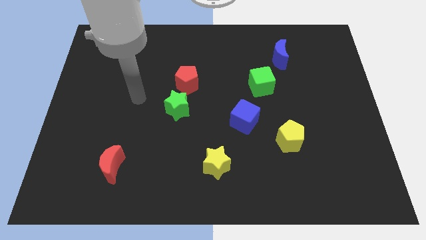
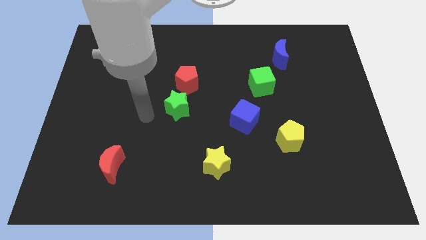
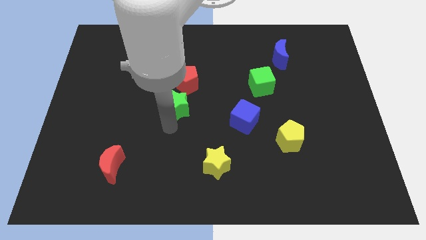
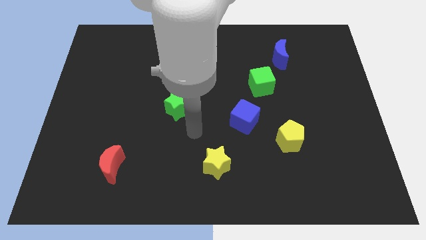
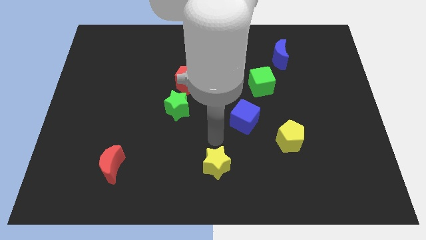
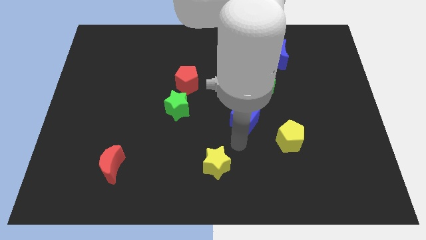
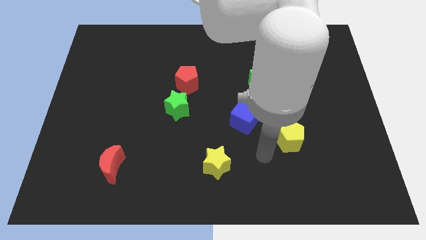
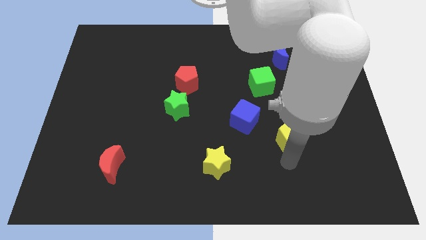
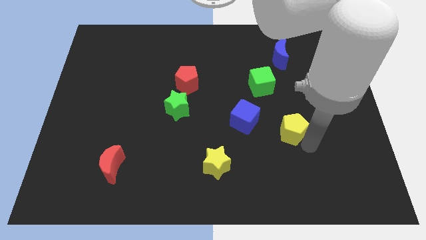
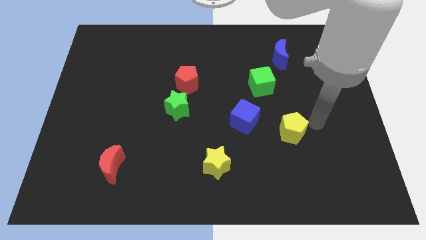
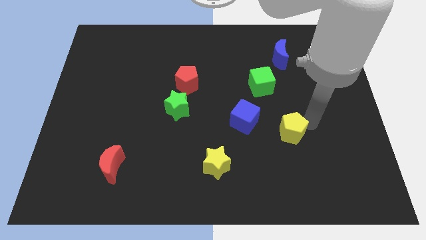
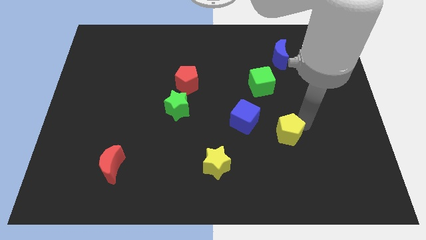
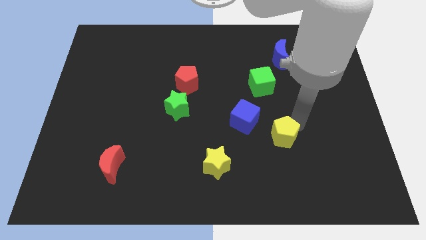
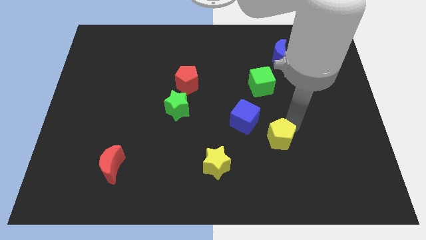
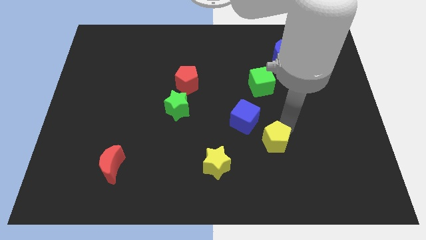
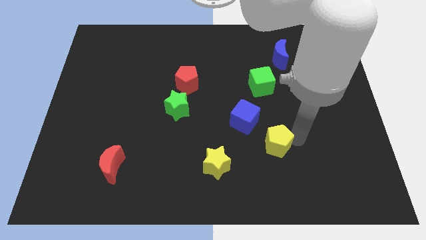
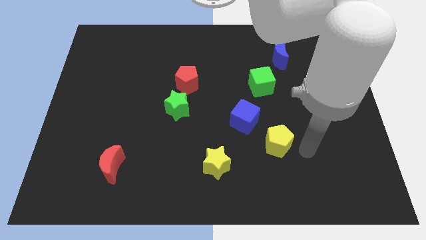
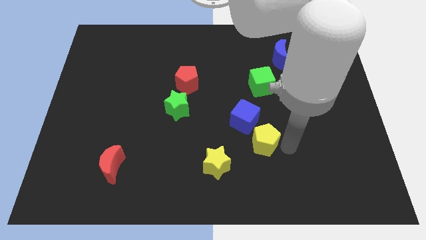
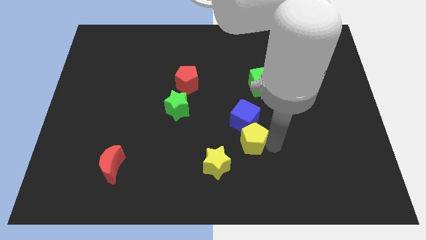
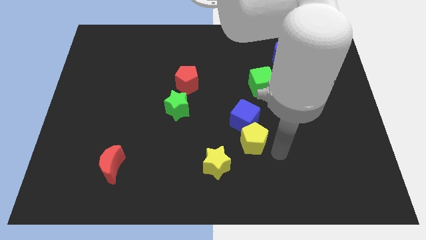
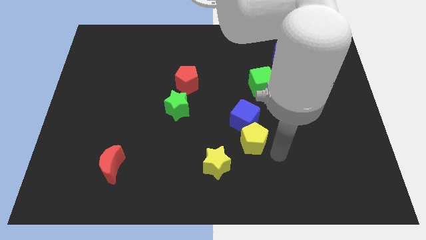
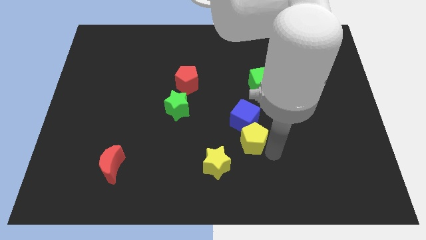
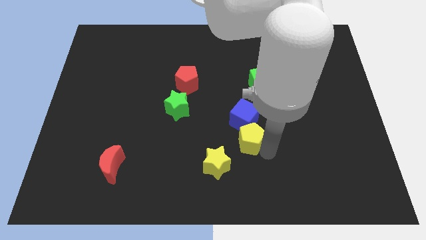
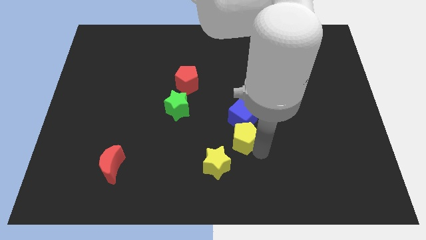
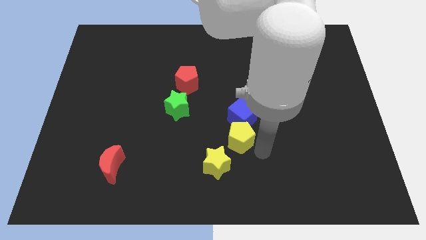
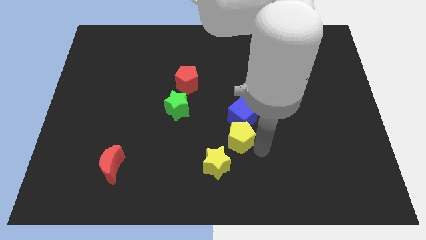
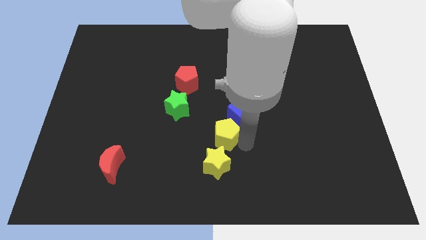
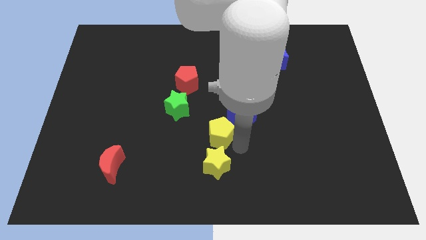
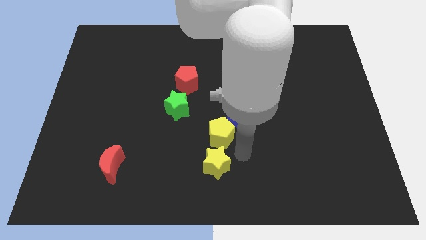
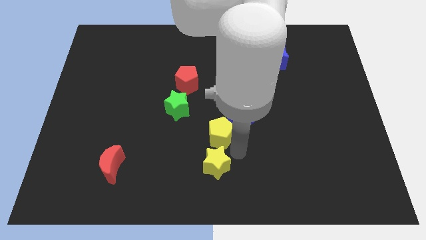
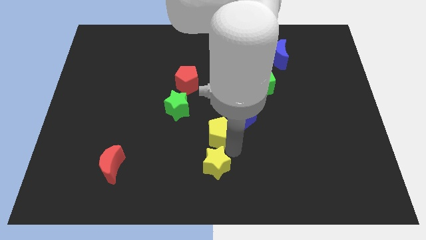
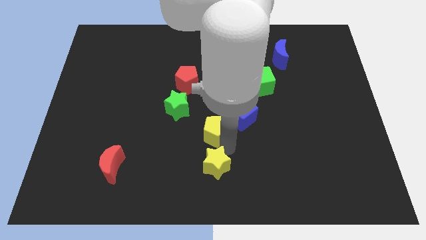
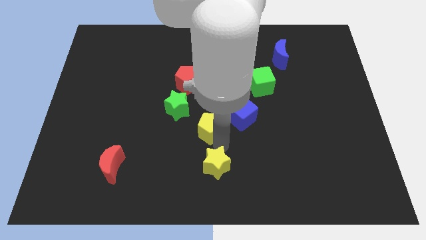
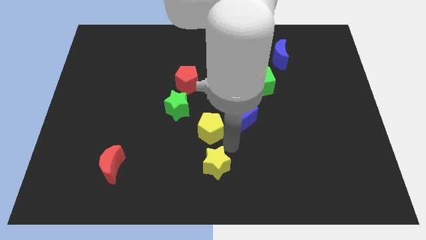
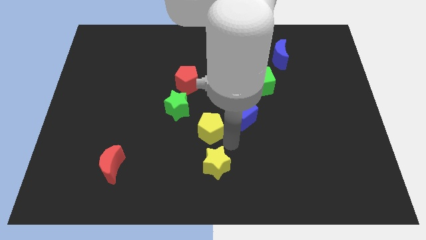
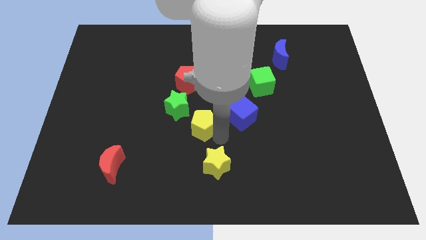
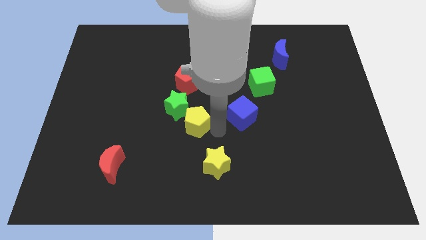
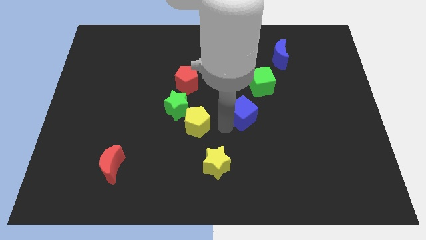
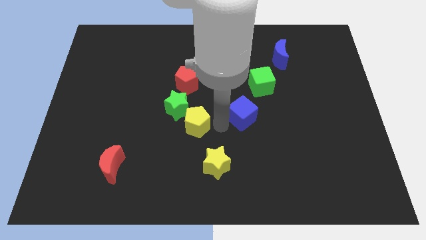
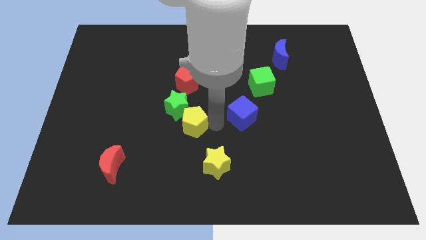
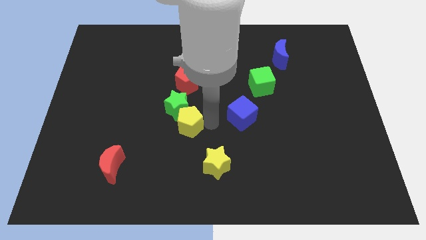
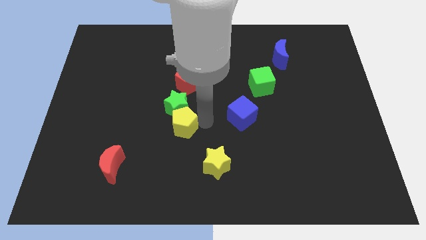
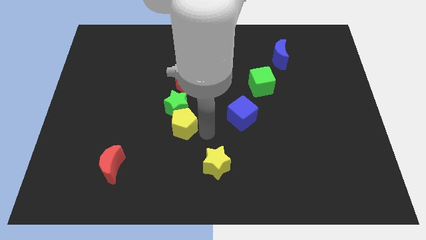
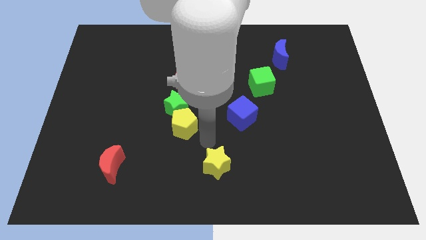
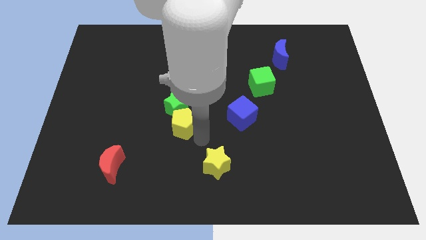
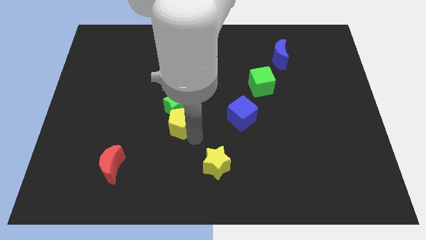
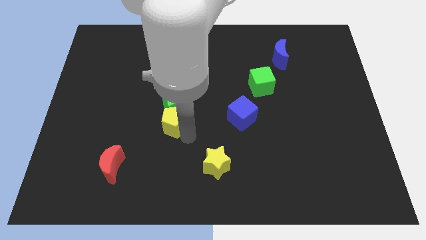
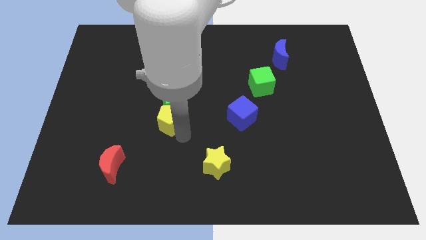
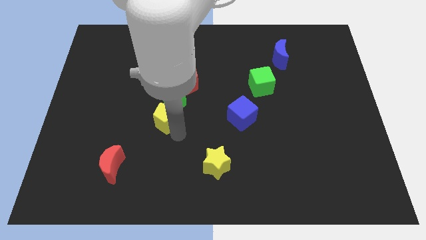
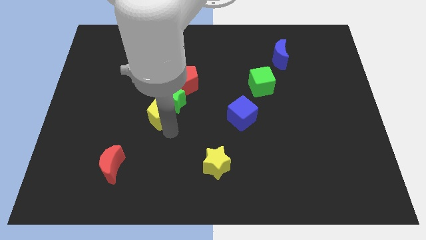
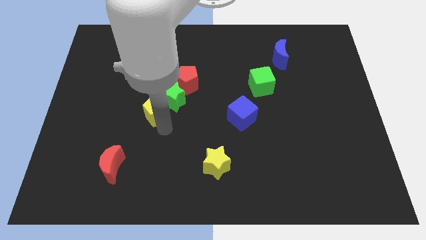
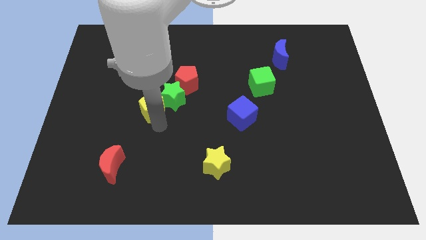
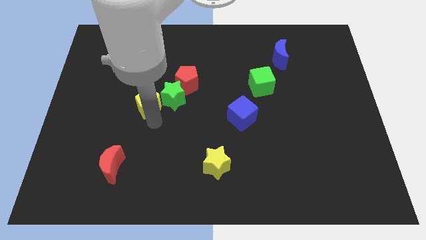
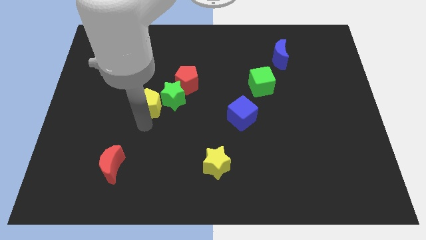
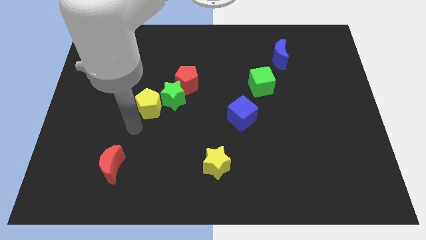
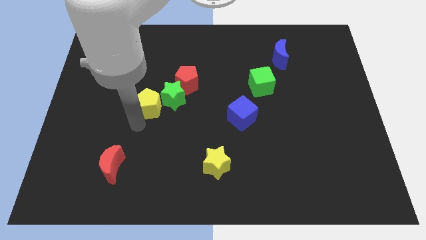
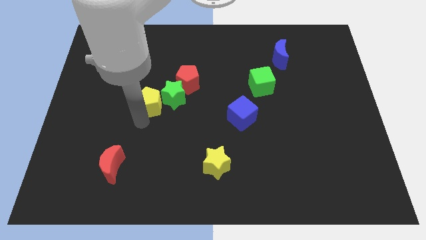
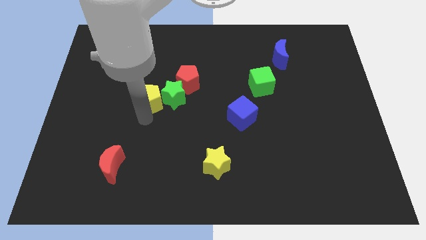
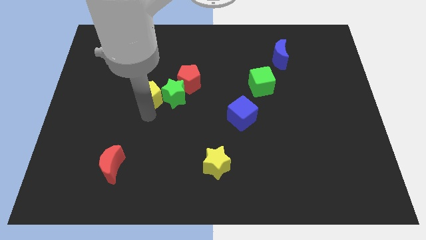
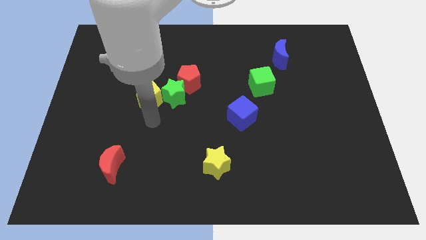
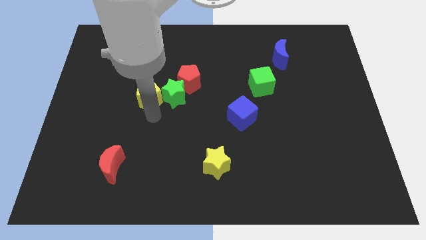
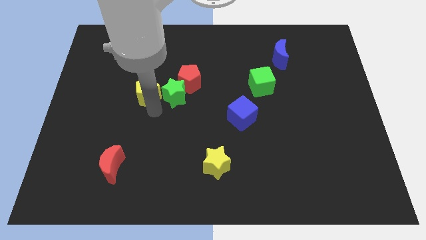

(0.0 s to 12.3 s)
push the yellow pentagon to the left of the red pentagon

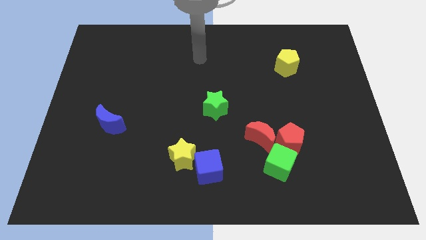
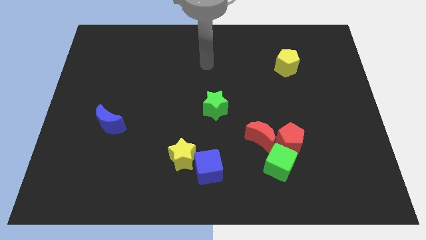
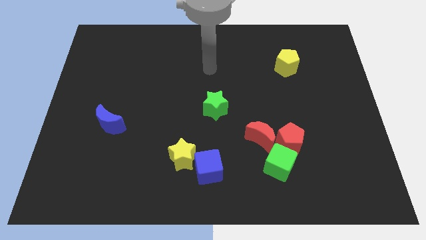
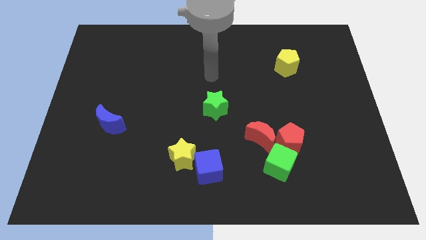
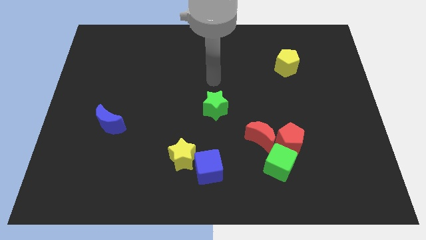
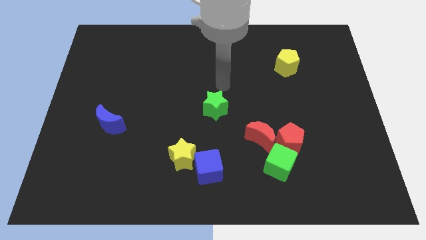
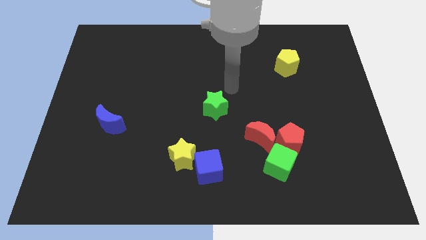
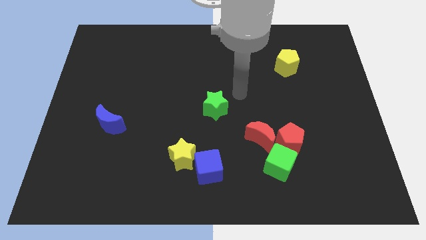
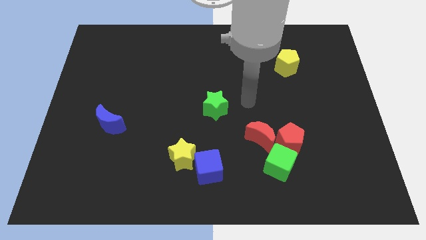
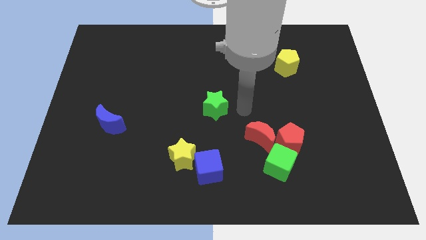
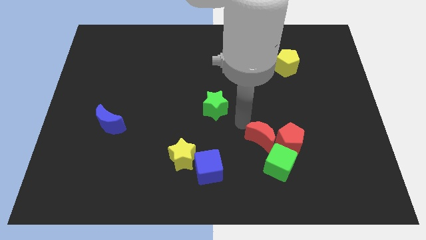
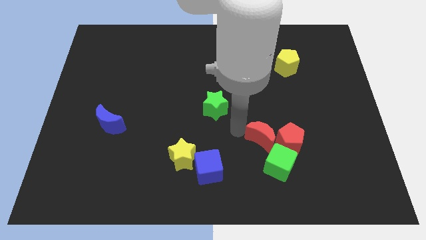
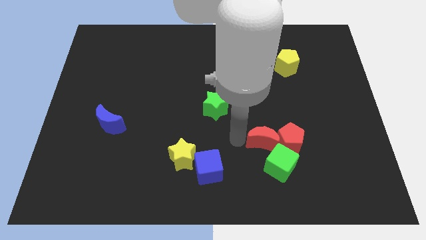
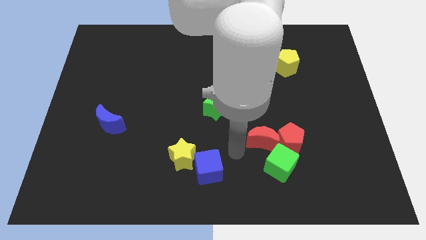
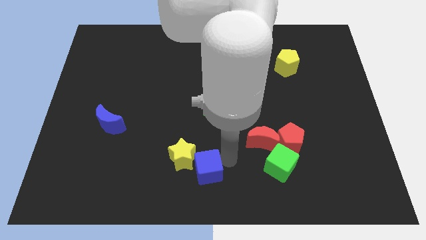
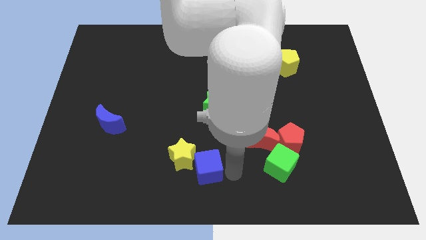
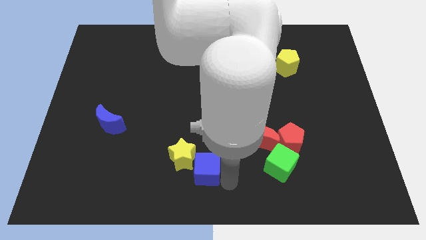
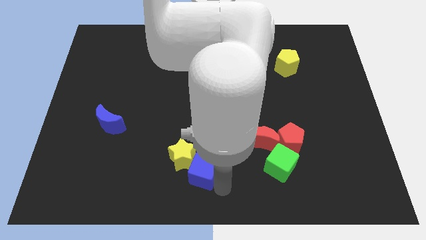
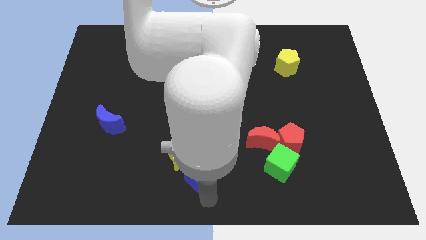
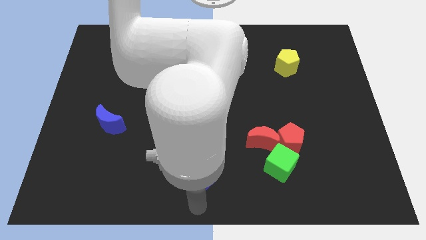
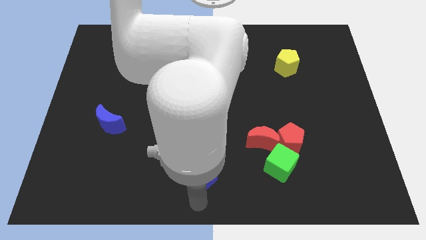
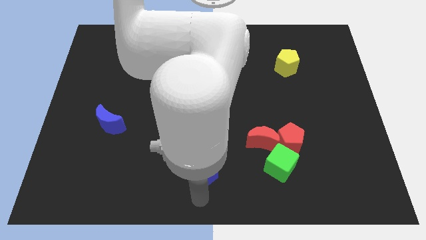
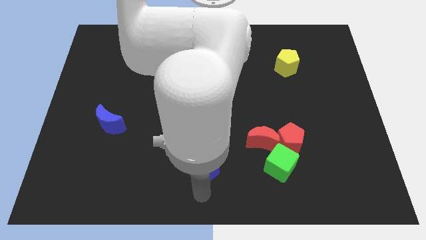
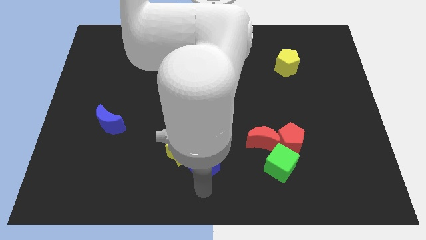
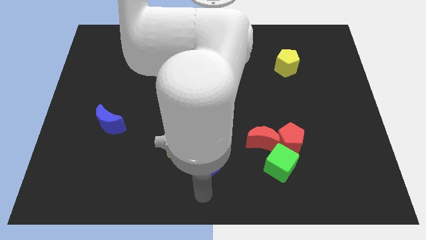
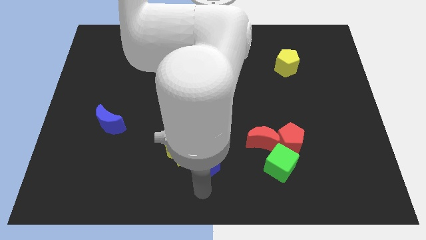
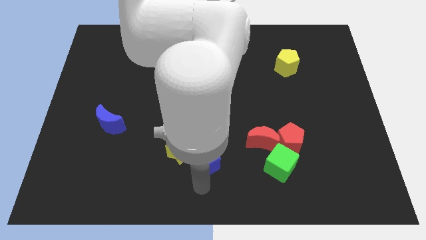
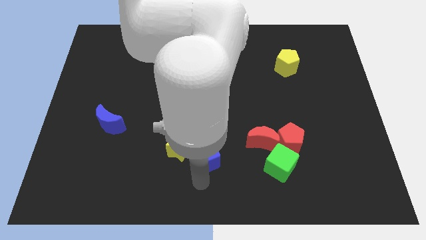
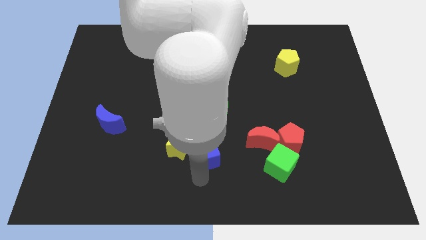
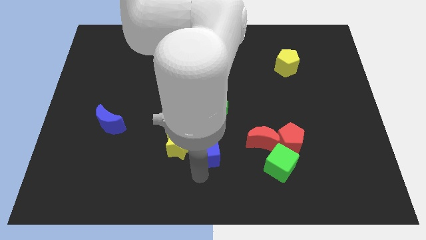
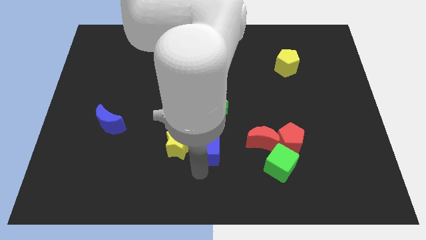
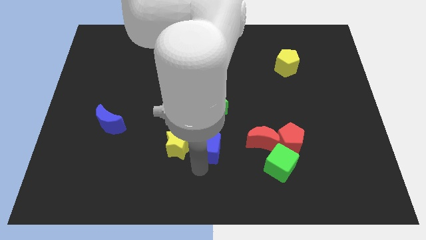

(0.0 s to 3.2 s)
push the blue cube diagonally up and to the right of the yellow star
